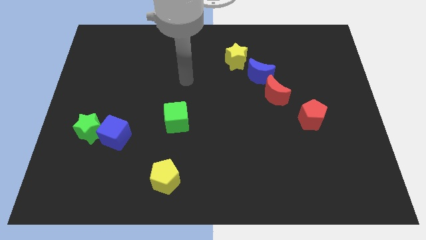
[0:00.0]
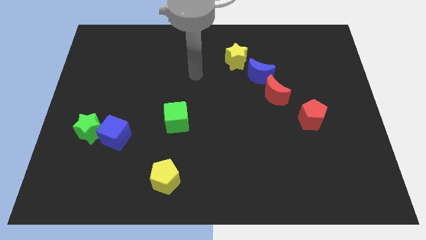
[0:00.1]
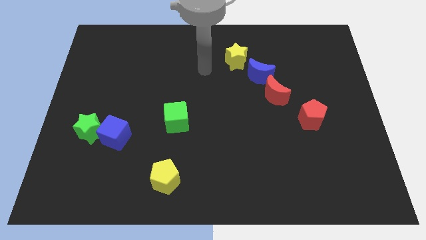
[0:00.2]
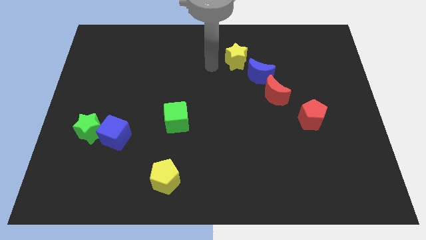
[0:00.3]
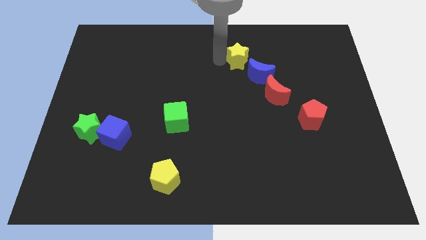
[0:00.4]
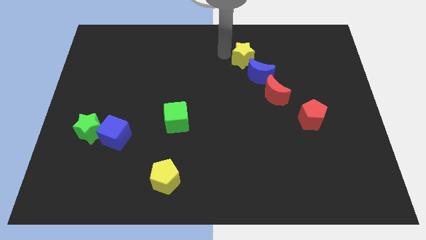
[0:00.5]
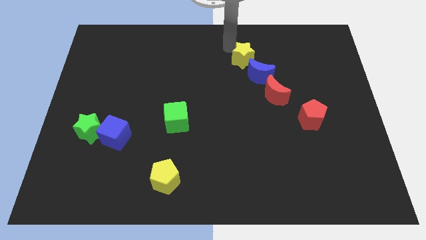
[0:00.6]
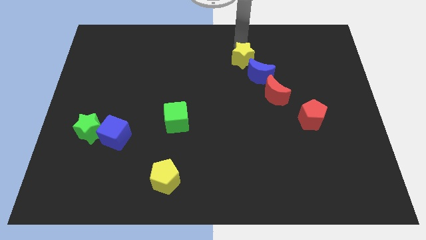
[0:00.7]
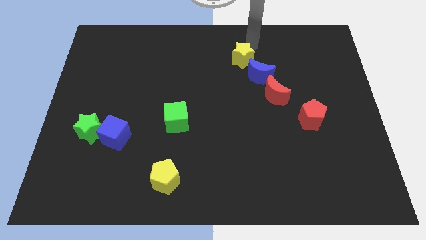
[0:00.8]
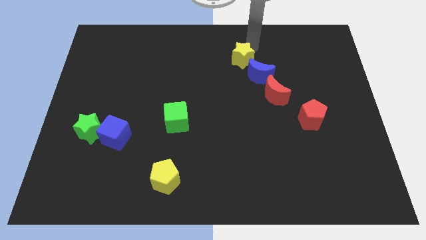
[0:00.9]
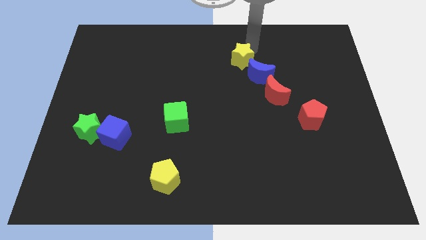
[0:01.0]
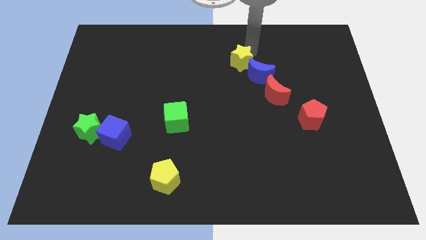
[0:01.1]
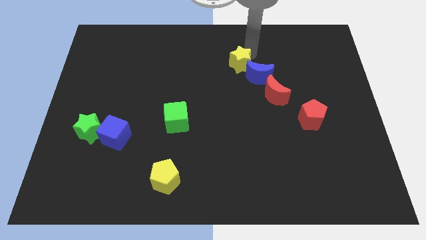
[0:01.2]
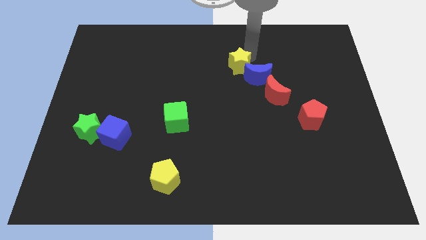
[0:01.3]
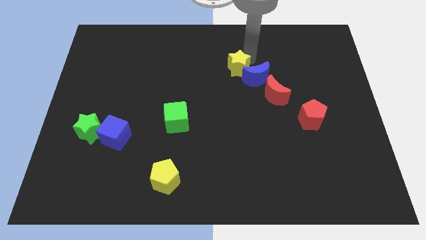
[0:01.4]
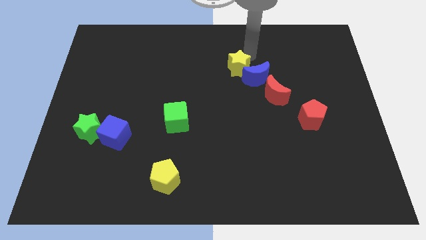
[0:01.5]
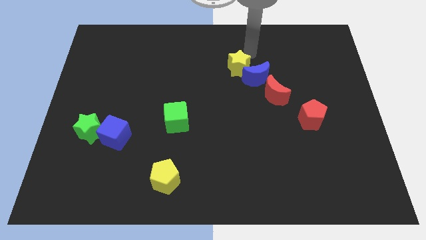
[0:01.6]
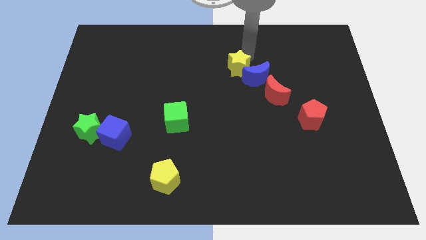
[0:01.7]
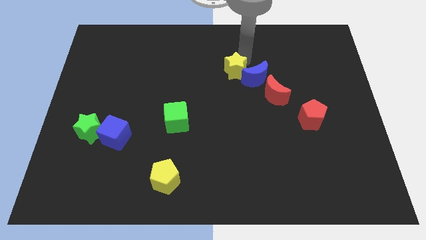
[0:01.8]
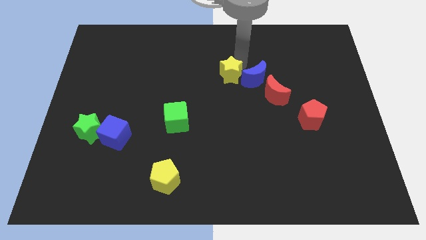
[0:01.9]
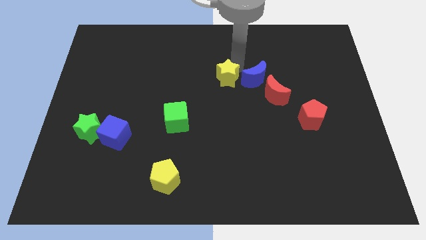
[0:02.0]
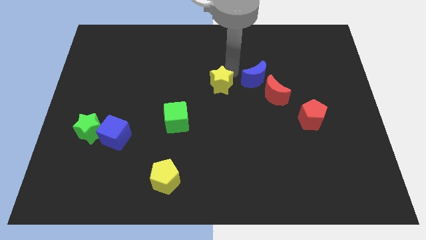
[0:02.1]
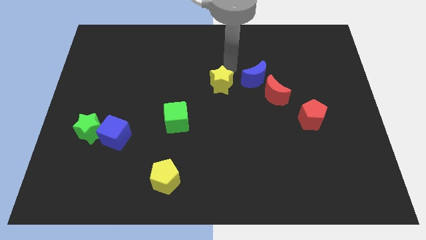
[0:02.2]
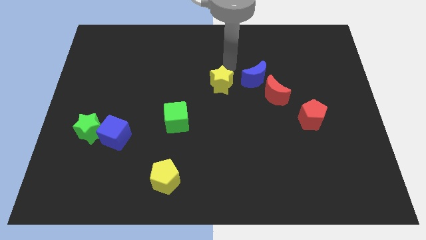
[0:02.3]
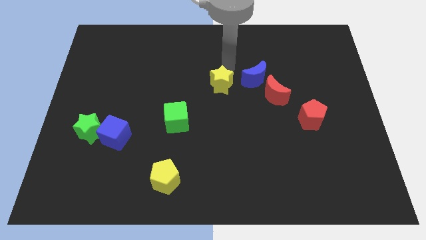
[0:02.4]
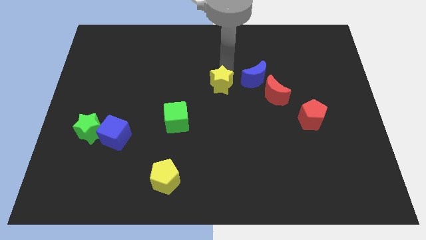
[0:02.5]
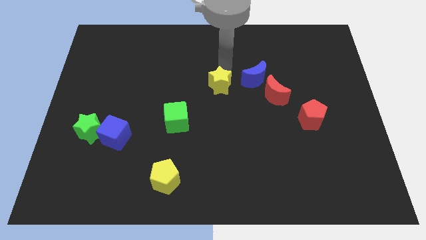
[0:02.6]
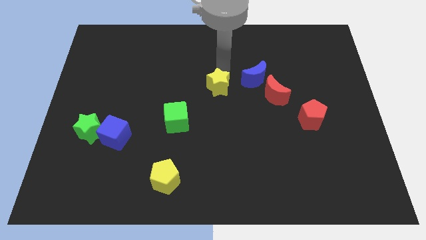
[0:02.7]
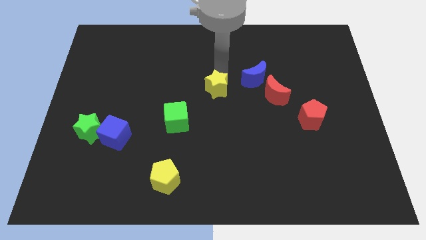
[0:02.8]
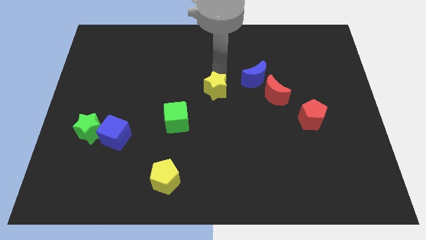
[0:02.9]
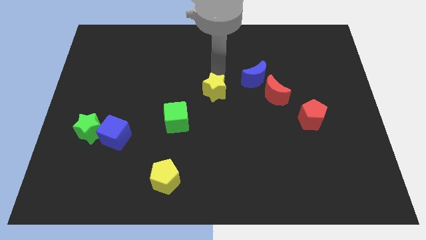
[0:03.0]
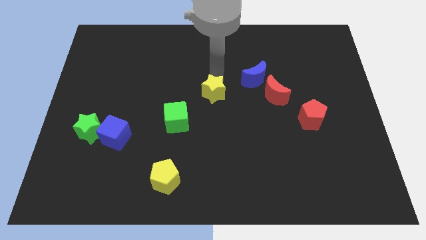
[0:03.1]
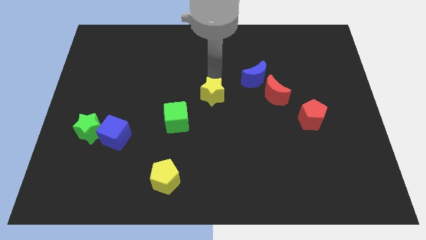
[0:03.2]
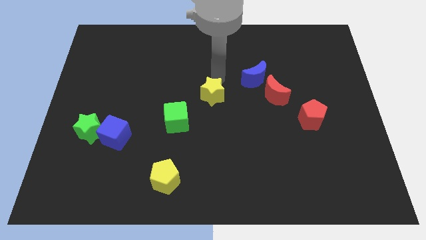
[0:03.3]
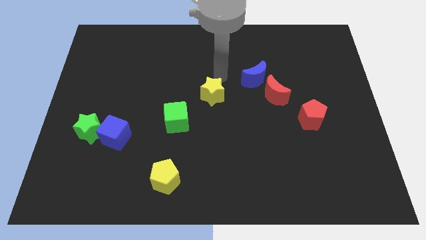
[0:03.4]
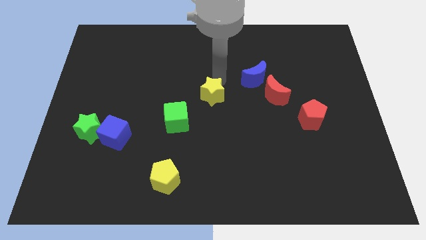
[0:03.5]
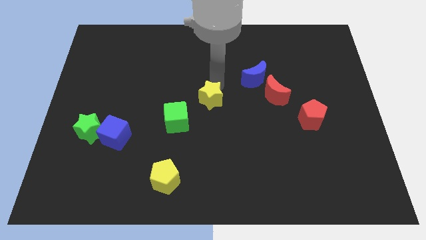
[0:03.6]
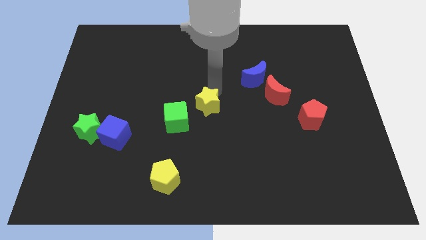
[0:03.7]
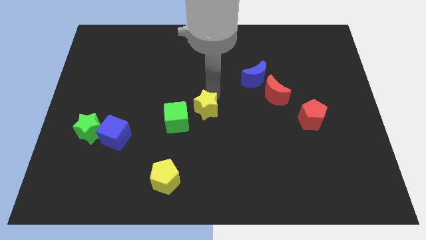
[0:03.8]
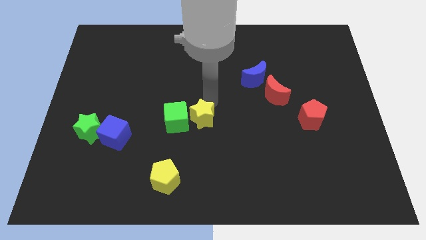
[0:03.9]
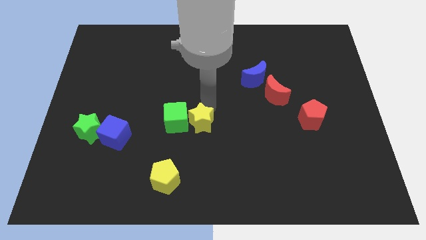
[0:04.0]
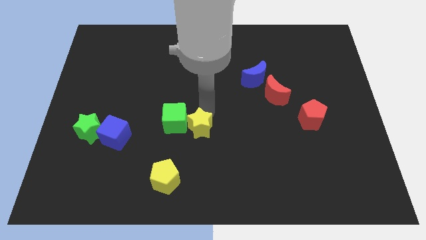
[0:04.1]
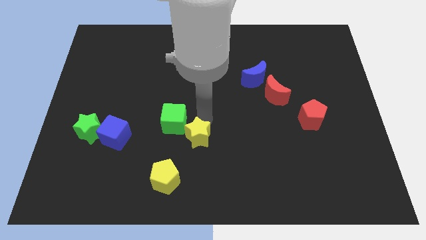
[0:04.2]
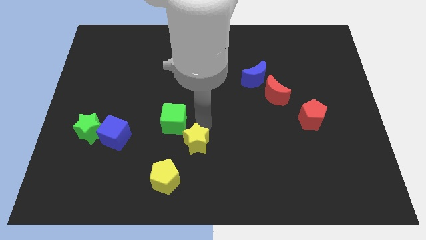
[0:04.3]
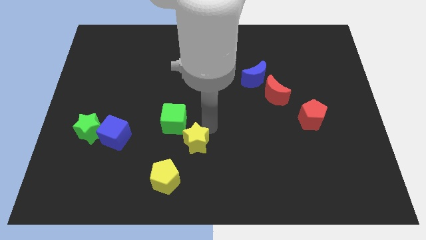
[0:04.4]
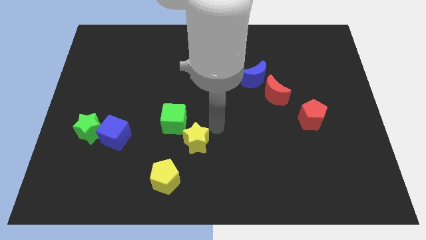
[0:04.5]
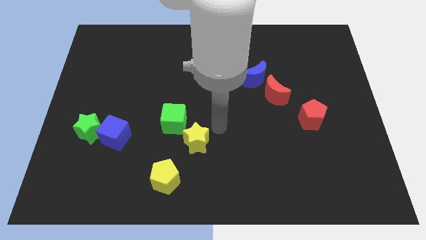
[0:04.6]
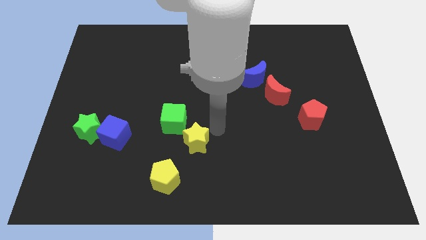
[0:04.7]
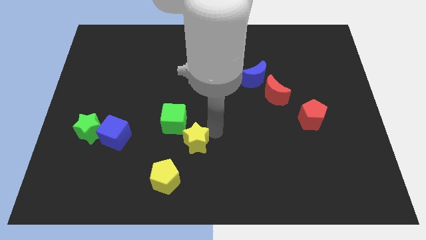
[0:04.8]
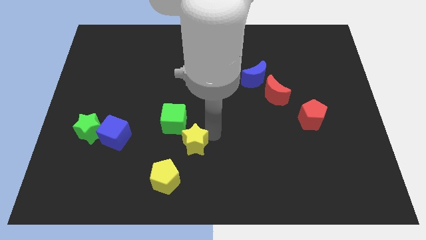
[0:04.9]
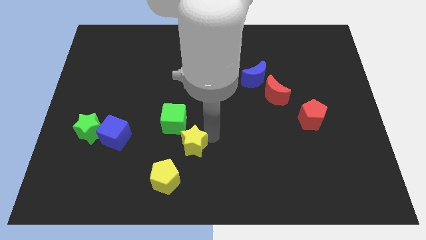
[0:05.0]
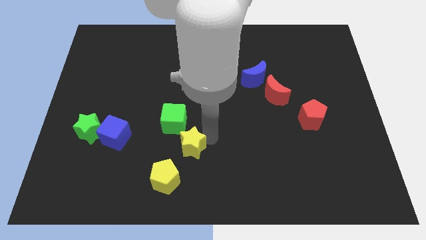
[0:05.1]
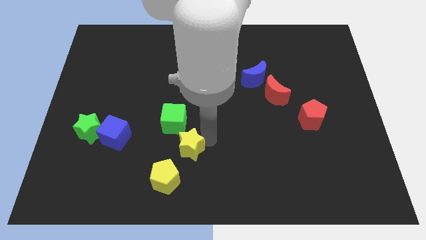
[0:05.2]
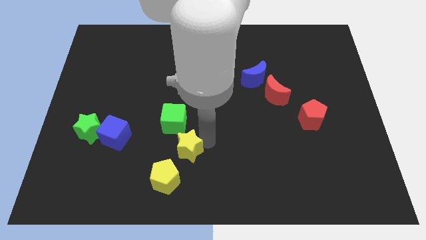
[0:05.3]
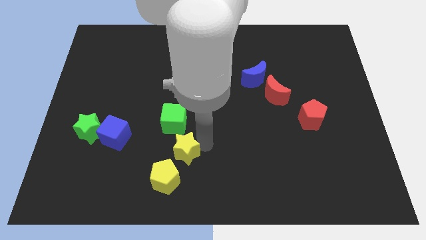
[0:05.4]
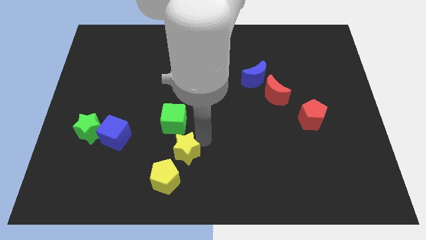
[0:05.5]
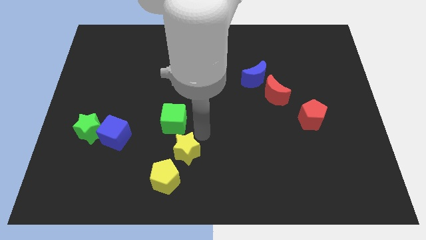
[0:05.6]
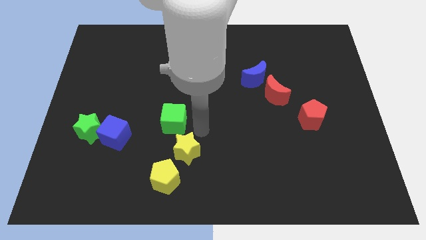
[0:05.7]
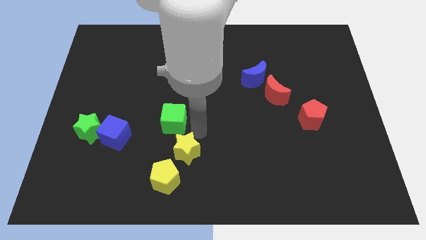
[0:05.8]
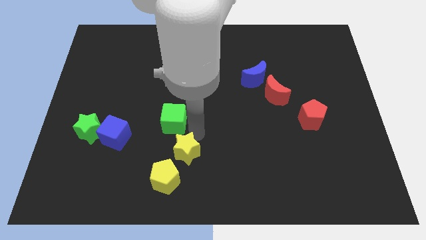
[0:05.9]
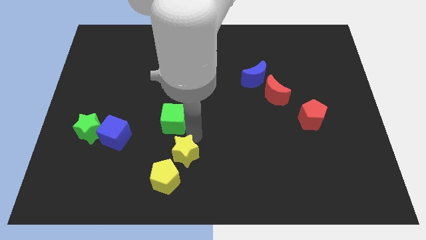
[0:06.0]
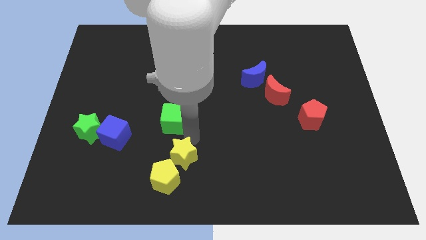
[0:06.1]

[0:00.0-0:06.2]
put the yellow star towards the yellow pentagon
